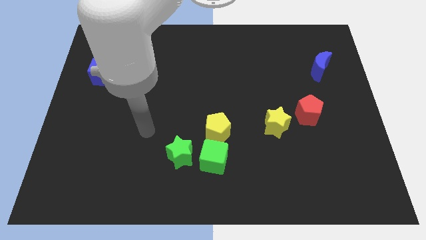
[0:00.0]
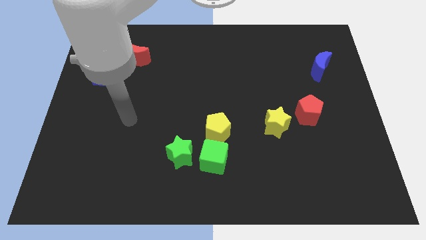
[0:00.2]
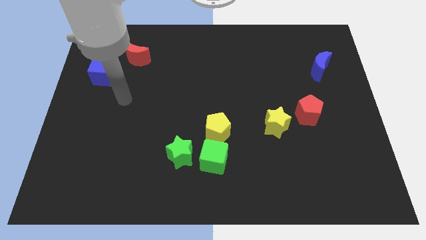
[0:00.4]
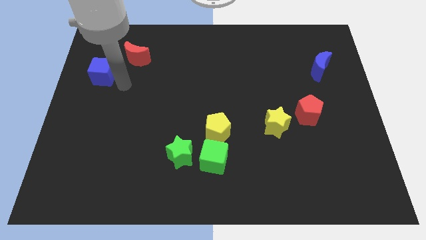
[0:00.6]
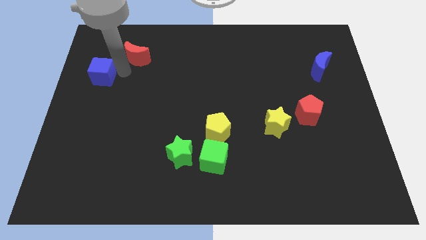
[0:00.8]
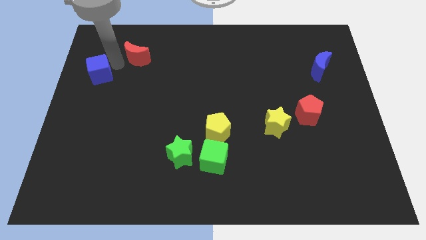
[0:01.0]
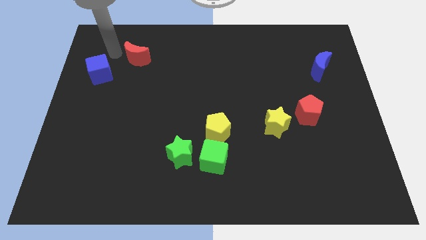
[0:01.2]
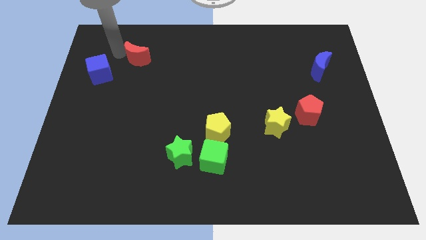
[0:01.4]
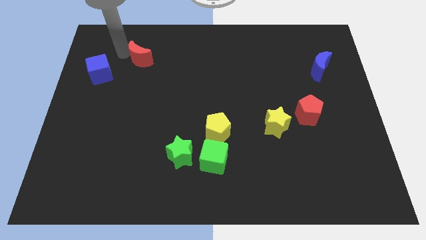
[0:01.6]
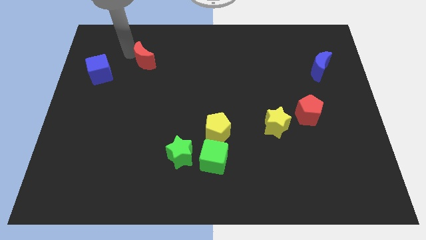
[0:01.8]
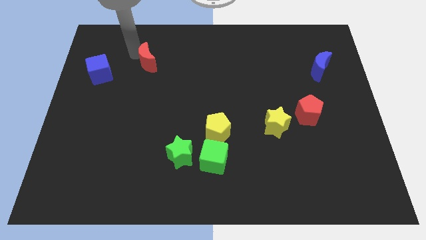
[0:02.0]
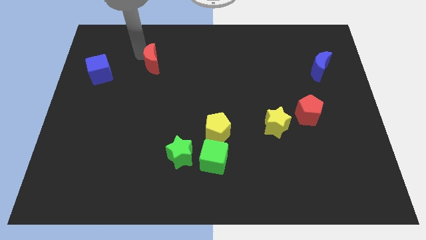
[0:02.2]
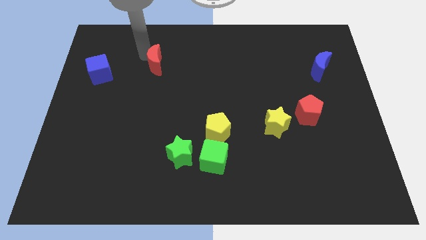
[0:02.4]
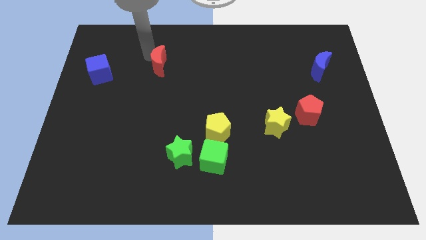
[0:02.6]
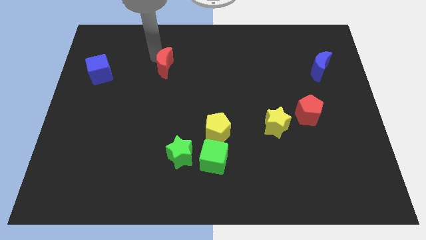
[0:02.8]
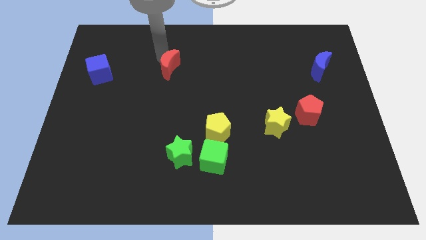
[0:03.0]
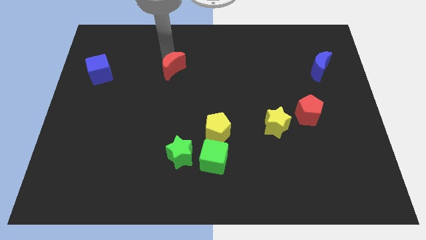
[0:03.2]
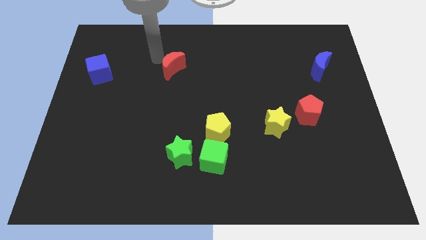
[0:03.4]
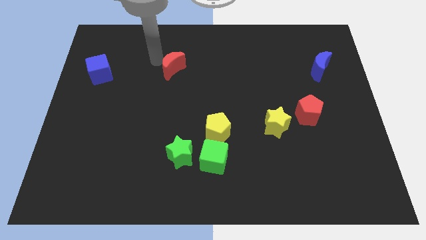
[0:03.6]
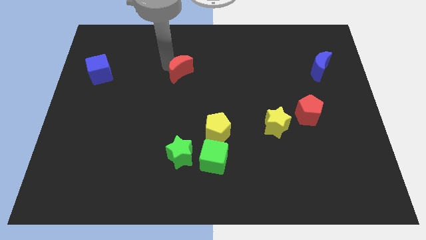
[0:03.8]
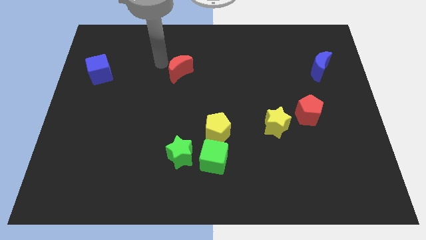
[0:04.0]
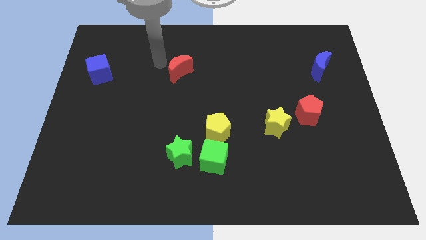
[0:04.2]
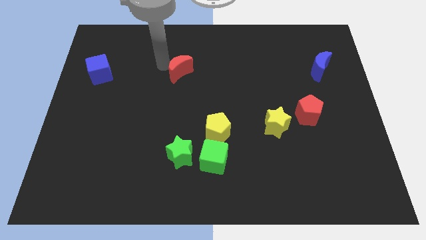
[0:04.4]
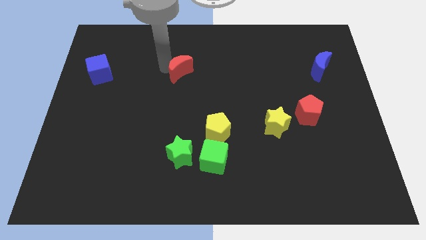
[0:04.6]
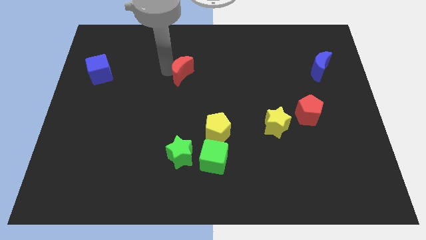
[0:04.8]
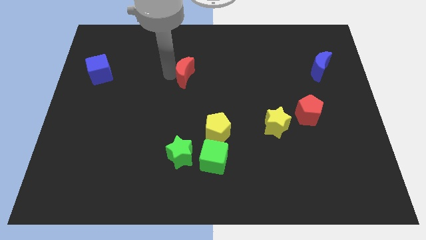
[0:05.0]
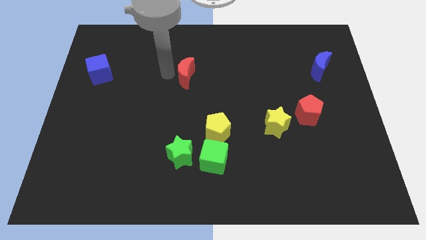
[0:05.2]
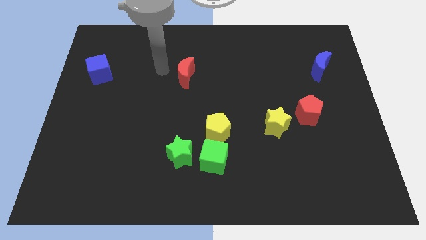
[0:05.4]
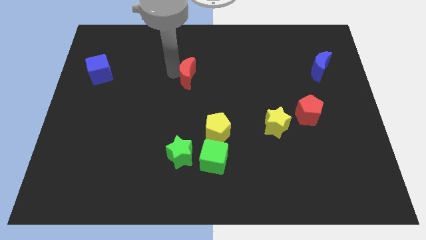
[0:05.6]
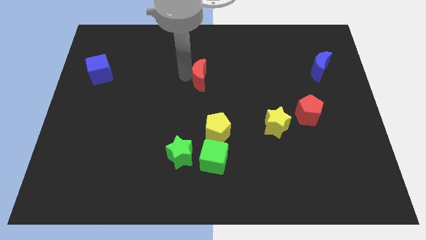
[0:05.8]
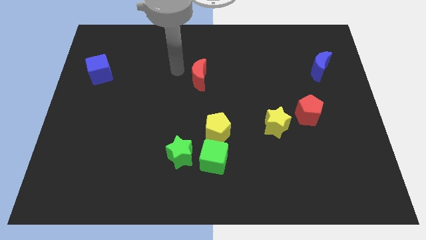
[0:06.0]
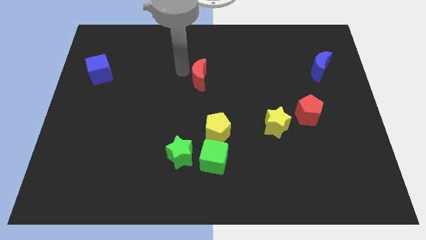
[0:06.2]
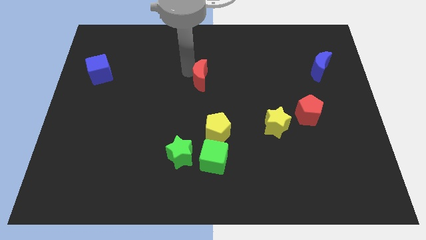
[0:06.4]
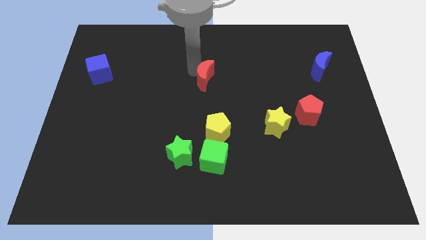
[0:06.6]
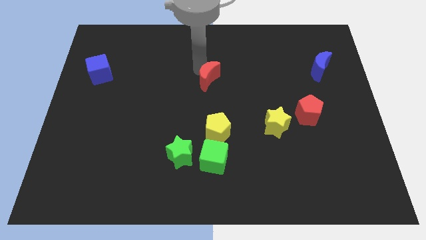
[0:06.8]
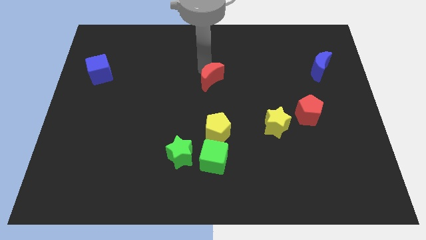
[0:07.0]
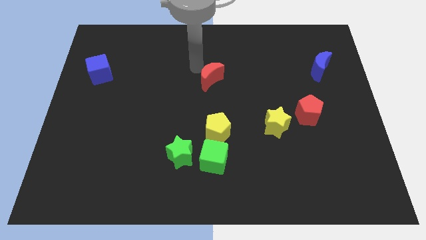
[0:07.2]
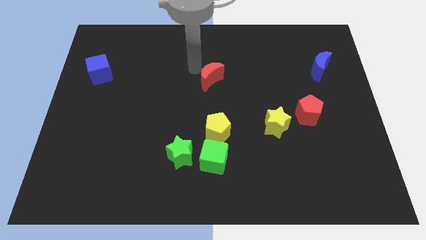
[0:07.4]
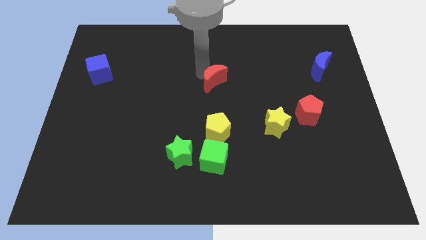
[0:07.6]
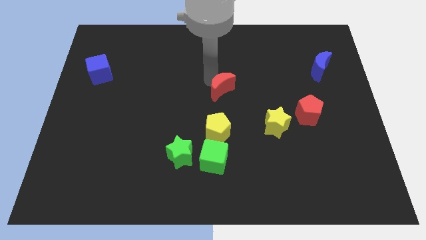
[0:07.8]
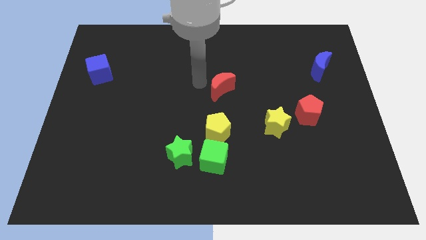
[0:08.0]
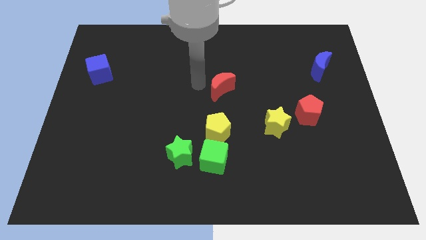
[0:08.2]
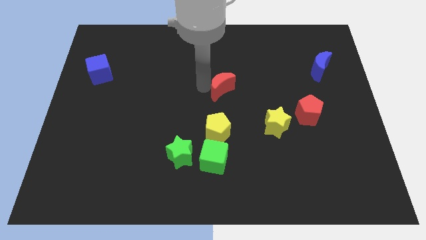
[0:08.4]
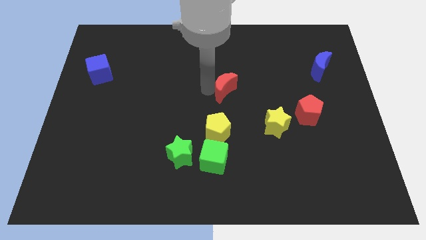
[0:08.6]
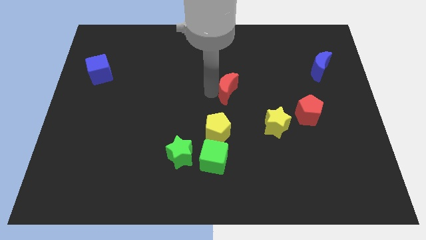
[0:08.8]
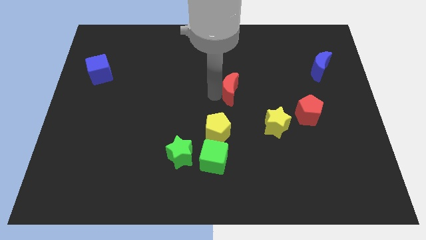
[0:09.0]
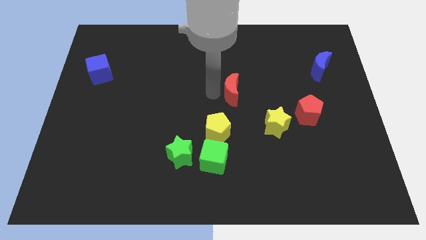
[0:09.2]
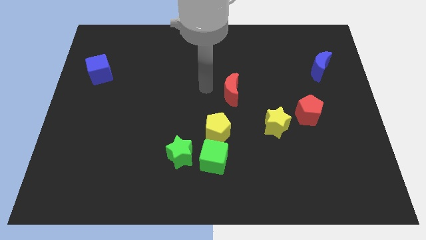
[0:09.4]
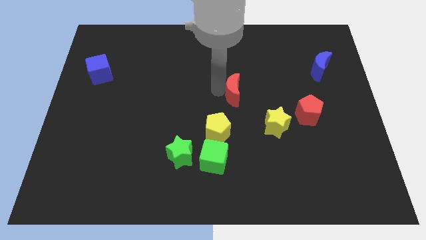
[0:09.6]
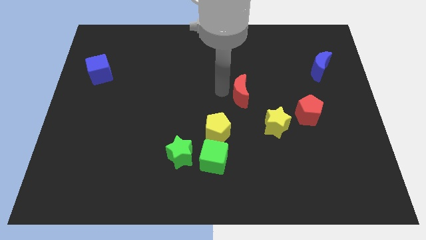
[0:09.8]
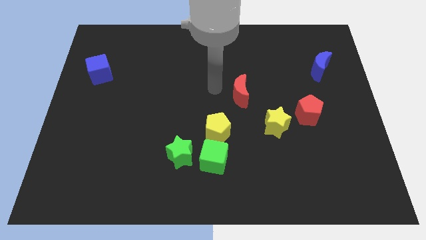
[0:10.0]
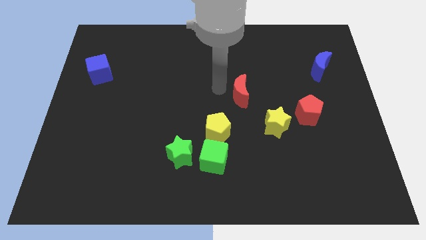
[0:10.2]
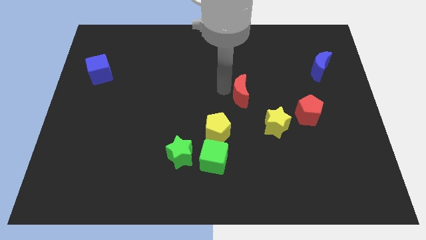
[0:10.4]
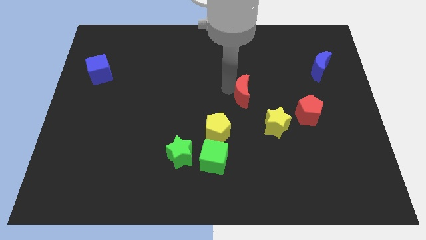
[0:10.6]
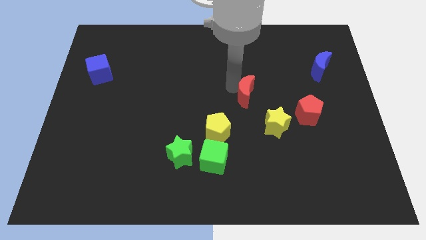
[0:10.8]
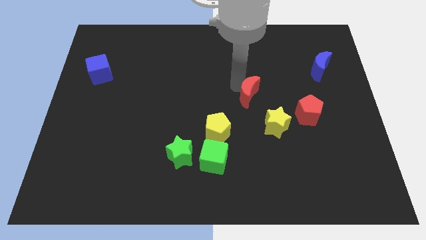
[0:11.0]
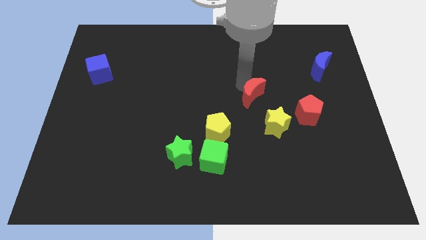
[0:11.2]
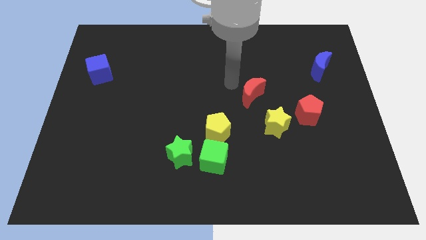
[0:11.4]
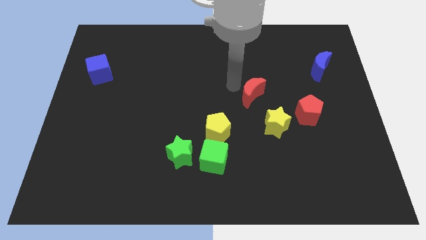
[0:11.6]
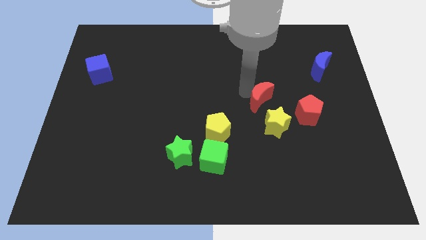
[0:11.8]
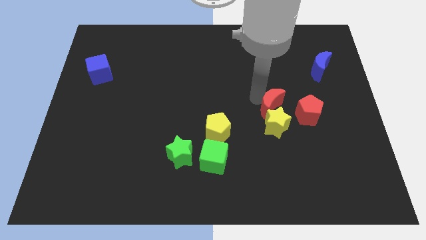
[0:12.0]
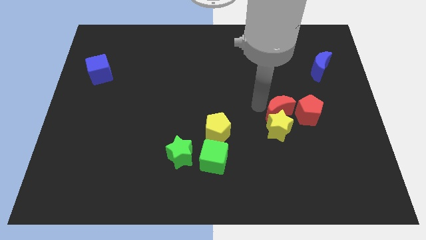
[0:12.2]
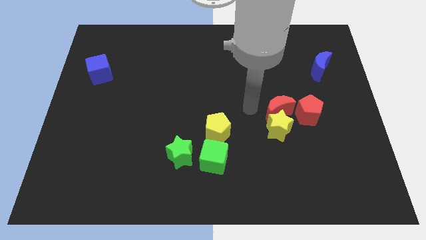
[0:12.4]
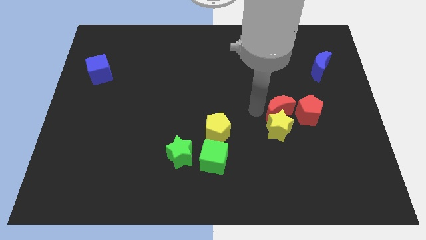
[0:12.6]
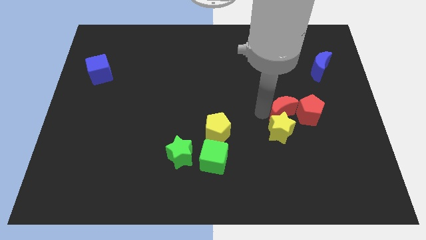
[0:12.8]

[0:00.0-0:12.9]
push the red moon close to the red pentagon

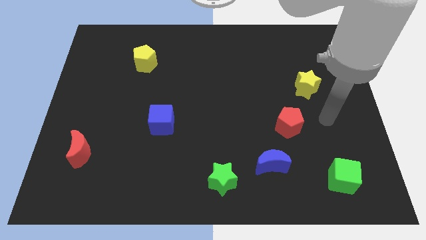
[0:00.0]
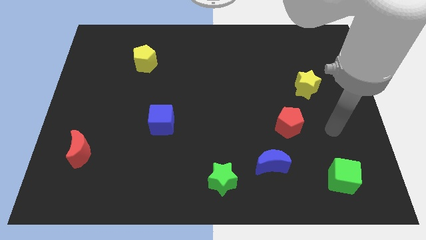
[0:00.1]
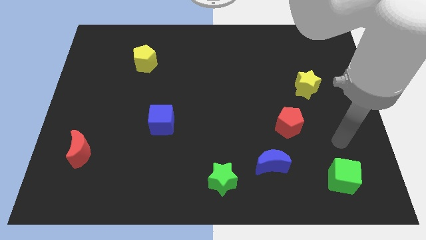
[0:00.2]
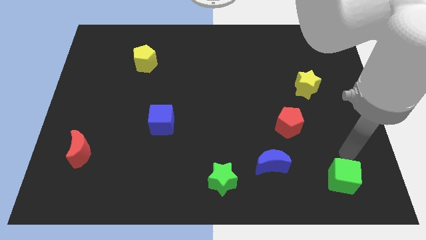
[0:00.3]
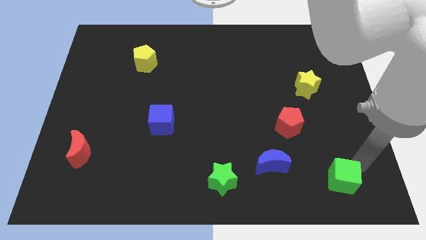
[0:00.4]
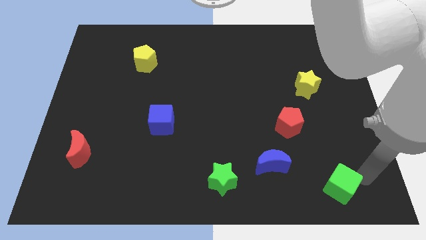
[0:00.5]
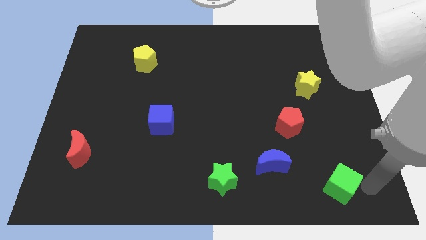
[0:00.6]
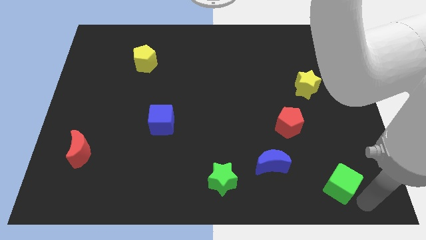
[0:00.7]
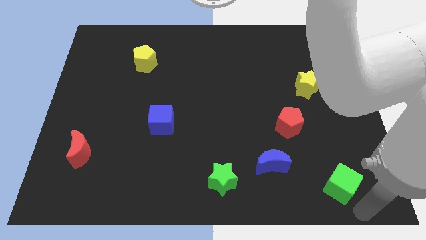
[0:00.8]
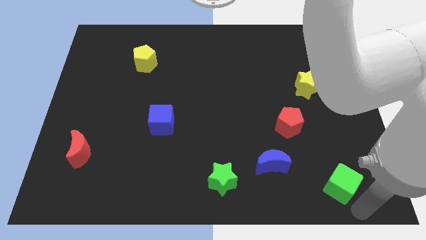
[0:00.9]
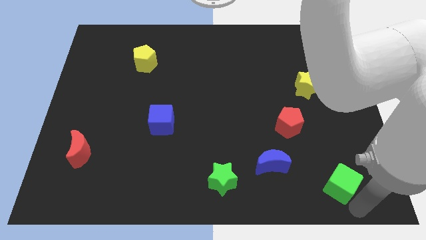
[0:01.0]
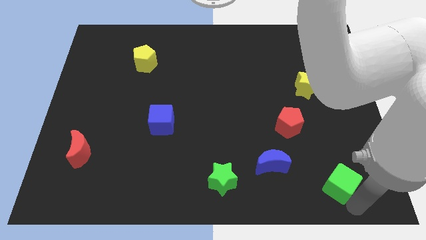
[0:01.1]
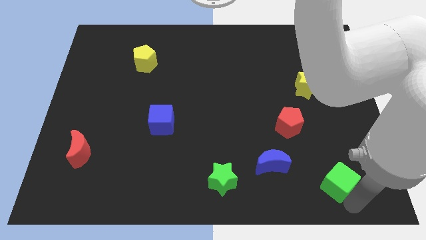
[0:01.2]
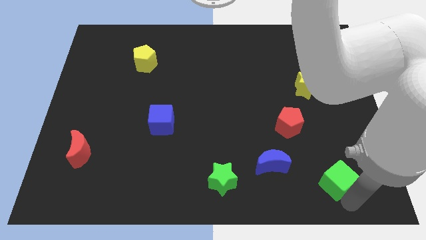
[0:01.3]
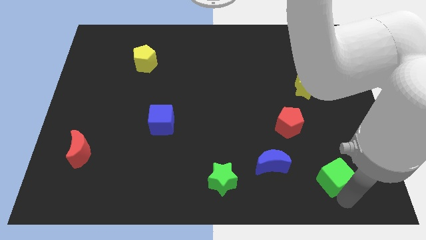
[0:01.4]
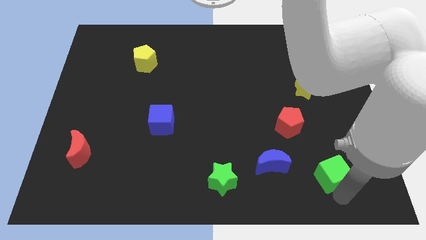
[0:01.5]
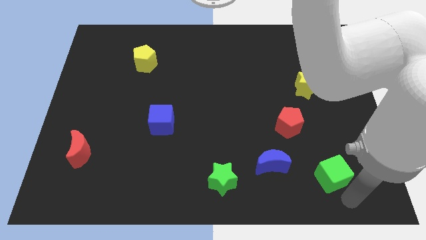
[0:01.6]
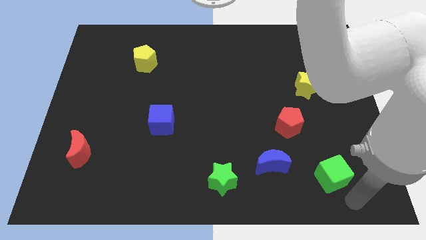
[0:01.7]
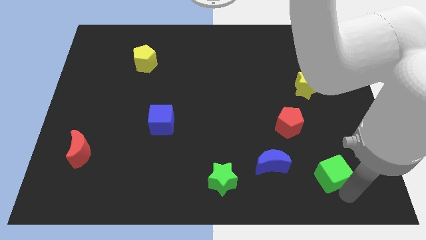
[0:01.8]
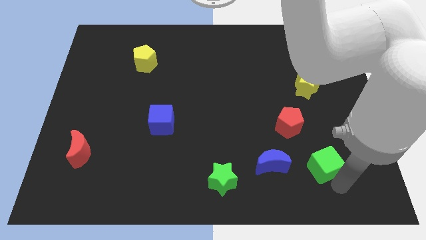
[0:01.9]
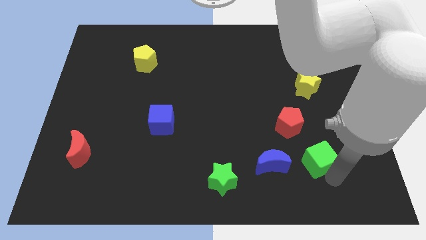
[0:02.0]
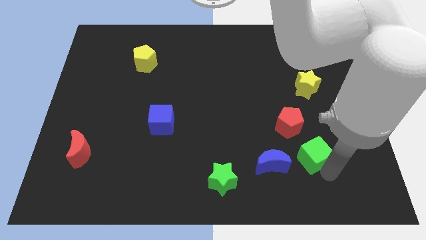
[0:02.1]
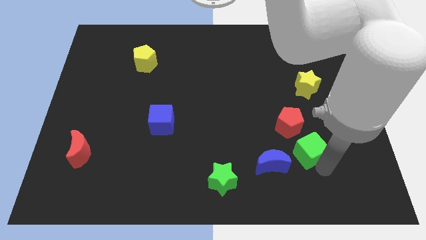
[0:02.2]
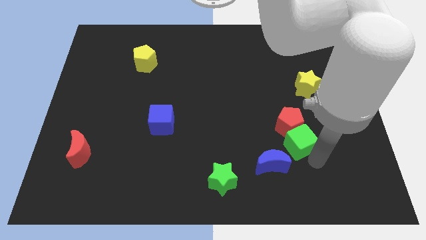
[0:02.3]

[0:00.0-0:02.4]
put the green cube to the red pentagon
